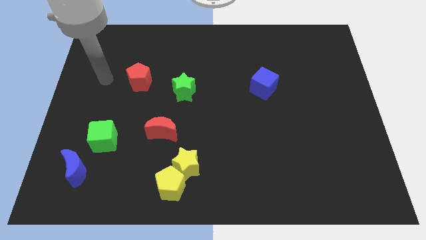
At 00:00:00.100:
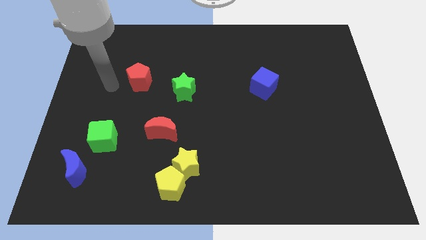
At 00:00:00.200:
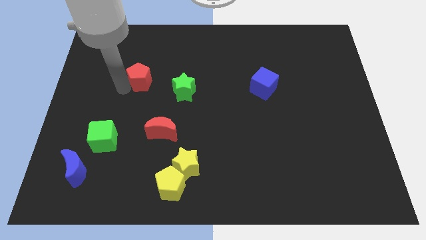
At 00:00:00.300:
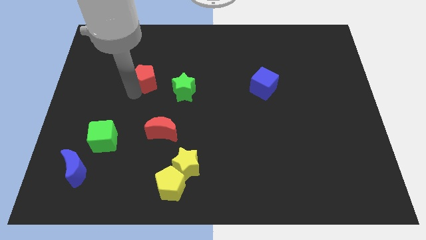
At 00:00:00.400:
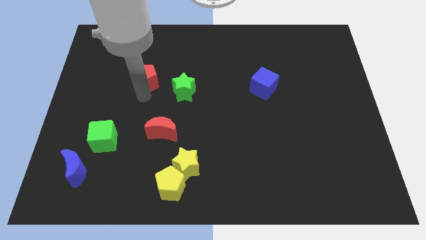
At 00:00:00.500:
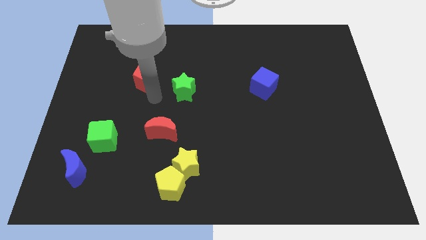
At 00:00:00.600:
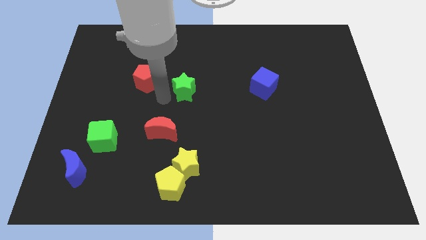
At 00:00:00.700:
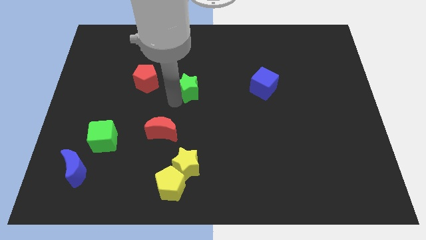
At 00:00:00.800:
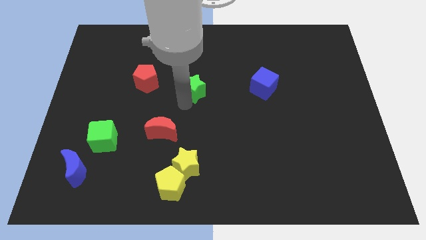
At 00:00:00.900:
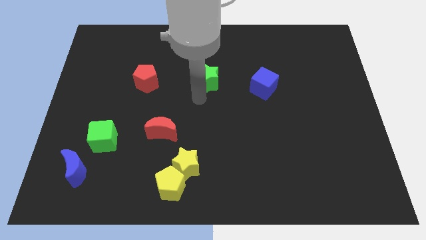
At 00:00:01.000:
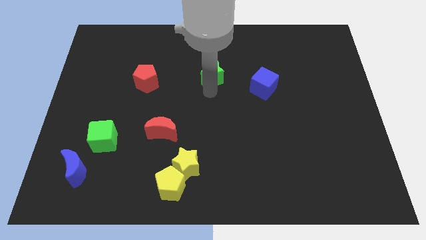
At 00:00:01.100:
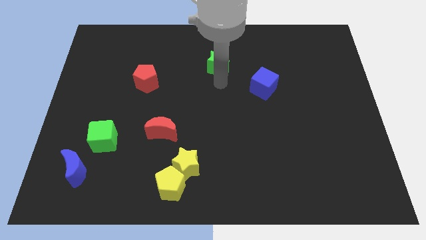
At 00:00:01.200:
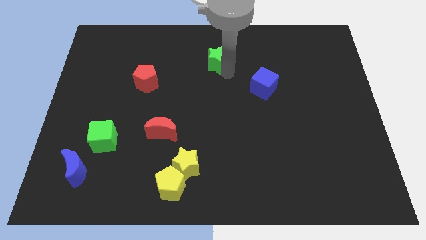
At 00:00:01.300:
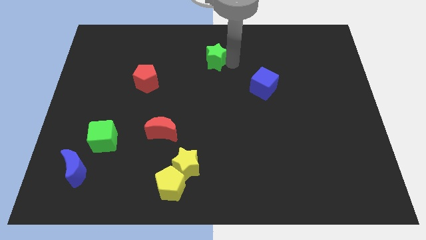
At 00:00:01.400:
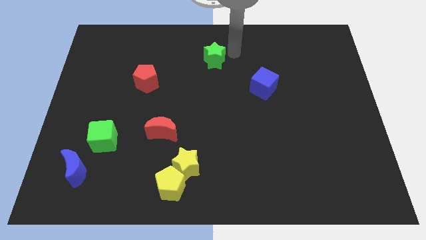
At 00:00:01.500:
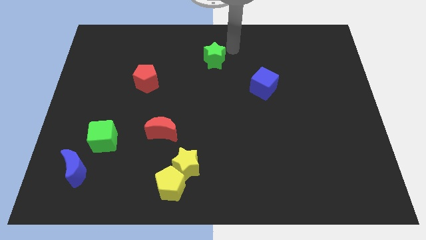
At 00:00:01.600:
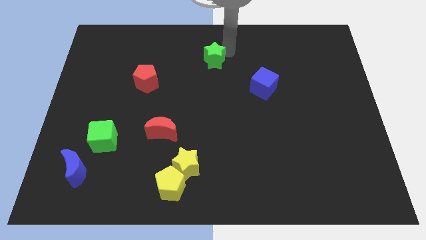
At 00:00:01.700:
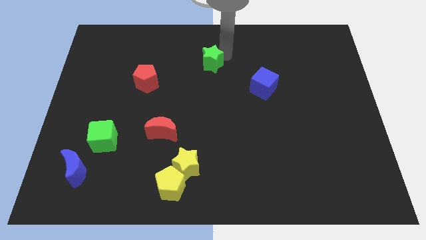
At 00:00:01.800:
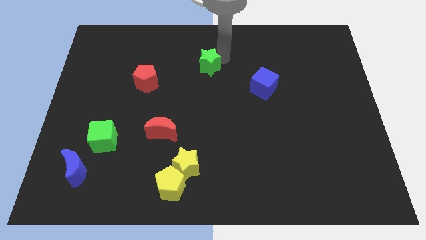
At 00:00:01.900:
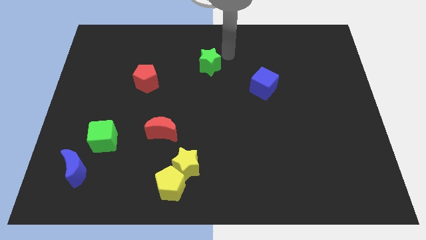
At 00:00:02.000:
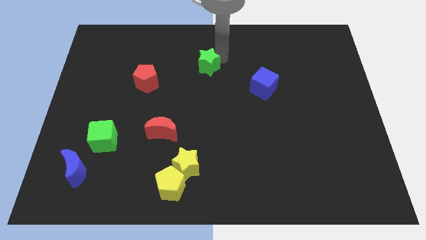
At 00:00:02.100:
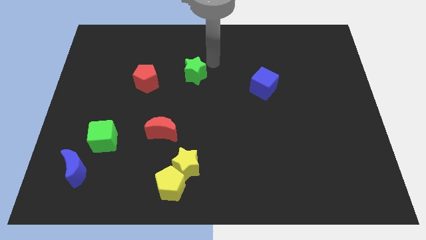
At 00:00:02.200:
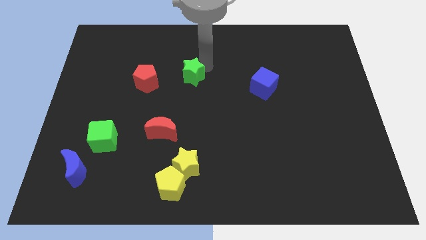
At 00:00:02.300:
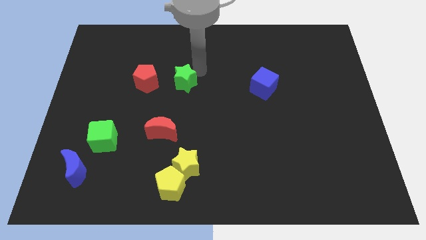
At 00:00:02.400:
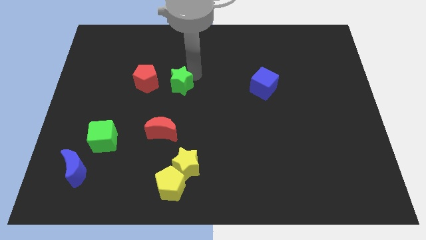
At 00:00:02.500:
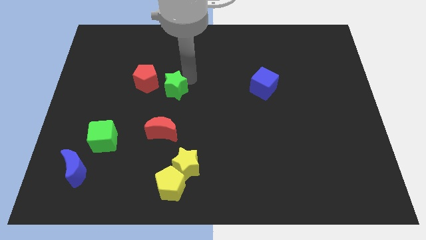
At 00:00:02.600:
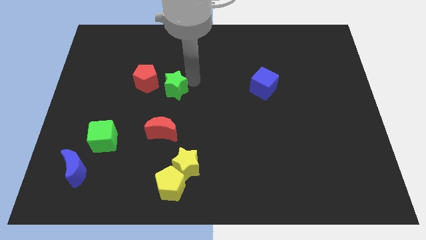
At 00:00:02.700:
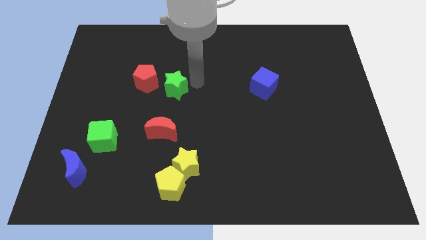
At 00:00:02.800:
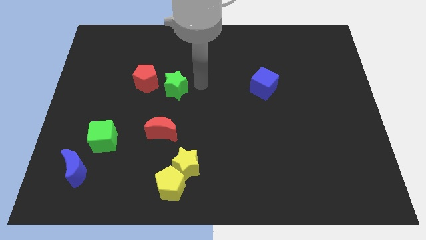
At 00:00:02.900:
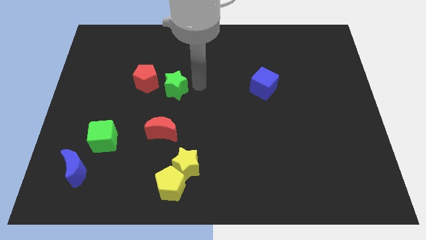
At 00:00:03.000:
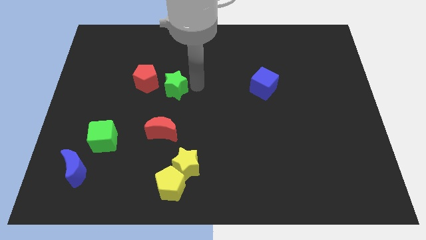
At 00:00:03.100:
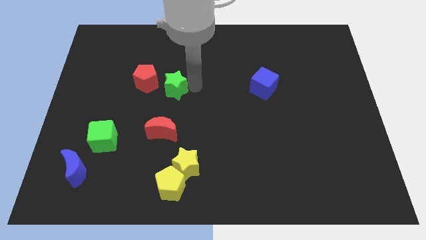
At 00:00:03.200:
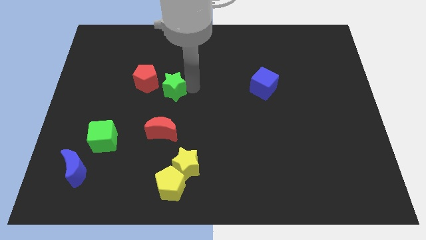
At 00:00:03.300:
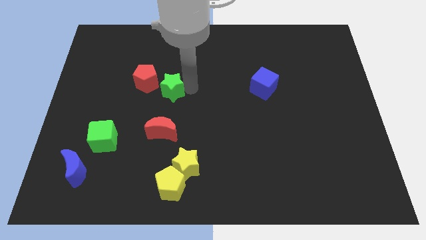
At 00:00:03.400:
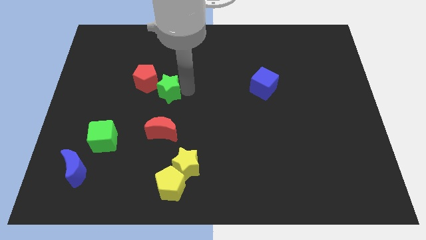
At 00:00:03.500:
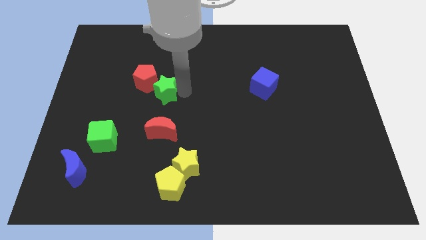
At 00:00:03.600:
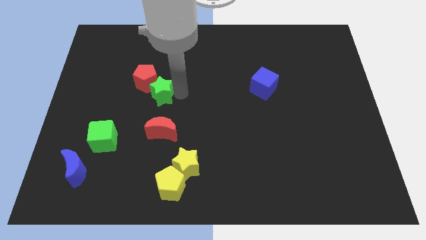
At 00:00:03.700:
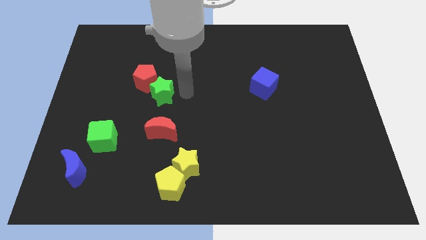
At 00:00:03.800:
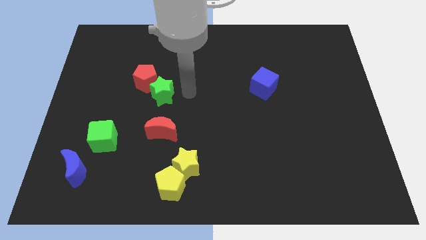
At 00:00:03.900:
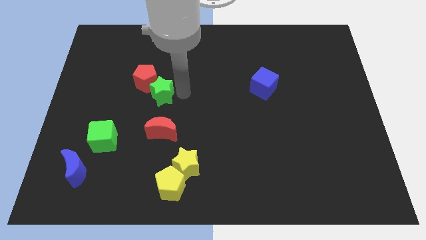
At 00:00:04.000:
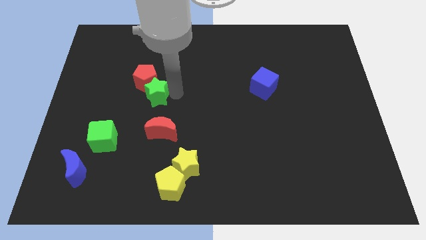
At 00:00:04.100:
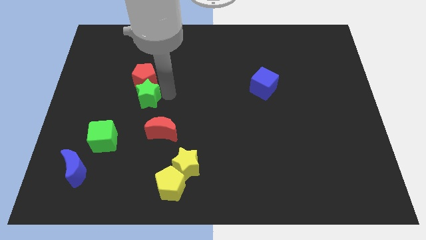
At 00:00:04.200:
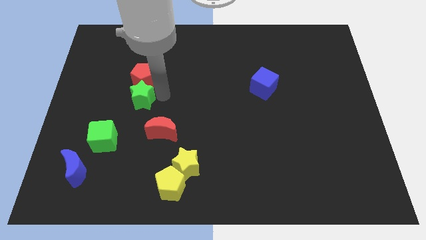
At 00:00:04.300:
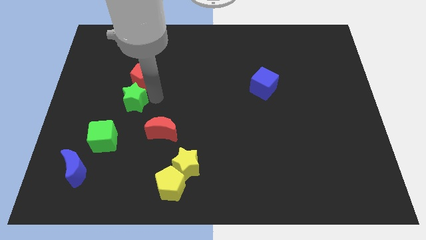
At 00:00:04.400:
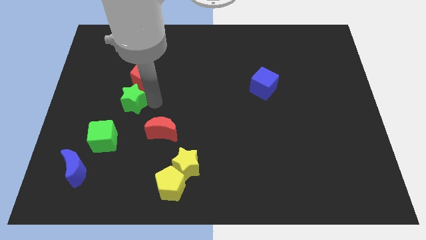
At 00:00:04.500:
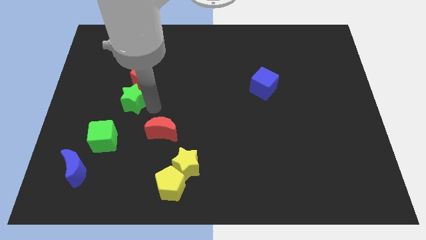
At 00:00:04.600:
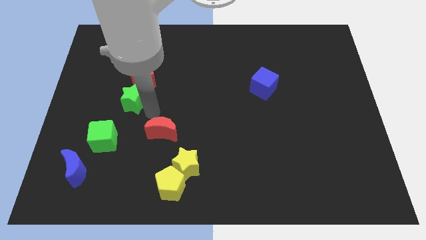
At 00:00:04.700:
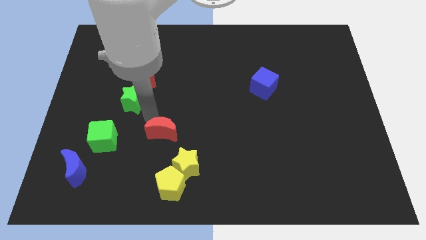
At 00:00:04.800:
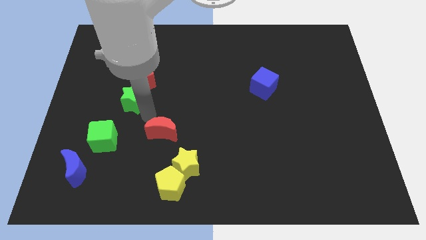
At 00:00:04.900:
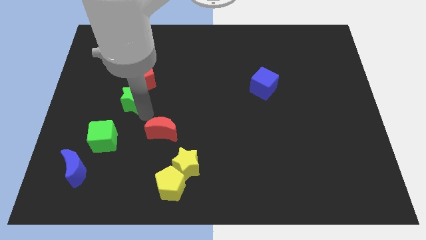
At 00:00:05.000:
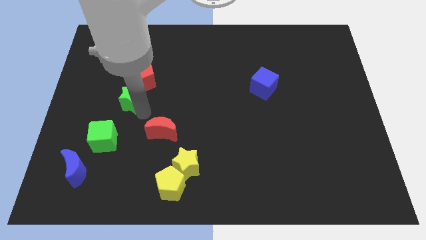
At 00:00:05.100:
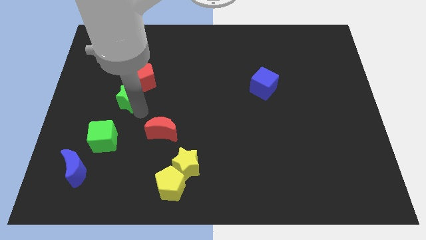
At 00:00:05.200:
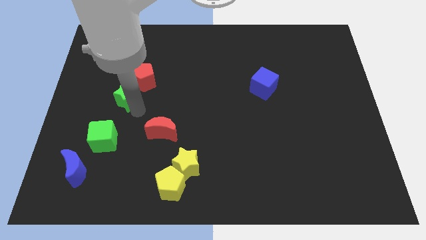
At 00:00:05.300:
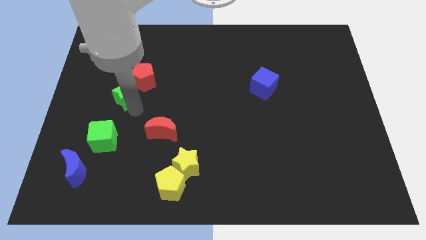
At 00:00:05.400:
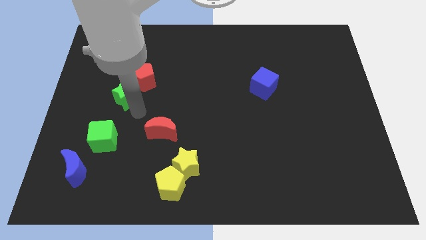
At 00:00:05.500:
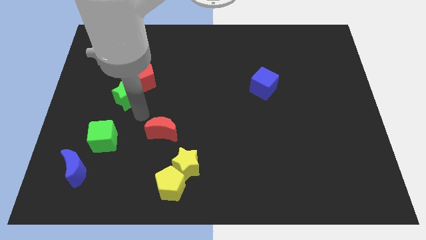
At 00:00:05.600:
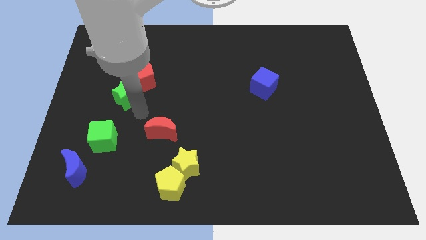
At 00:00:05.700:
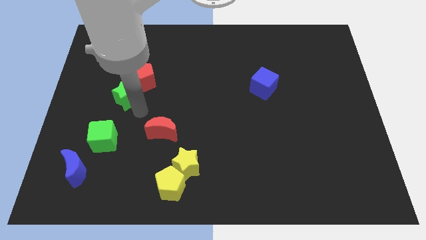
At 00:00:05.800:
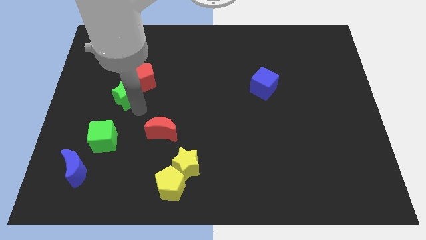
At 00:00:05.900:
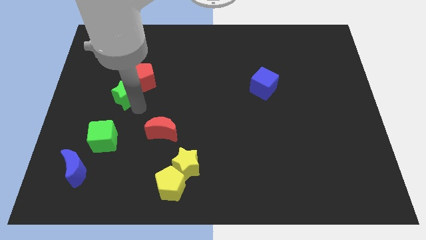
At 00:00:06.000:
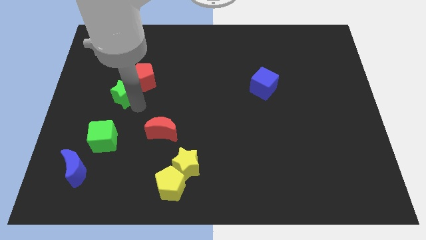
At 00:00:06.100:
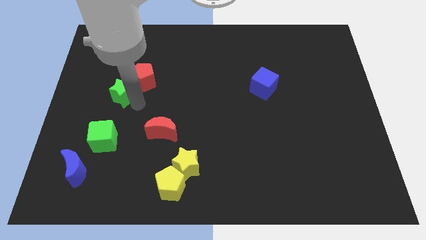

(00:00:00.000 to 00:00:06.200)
push the green star to the left of the red pentagon
